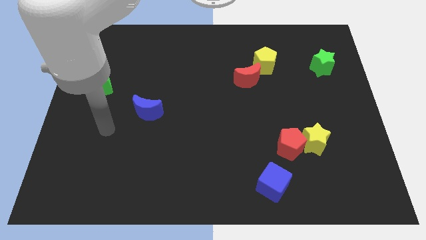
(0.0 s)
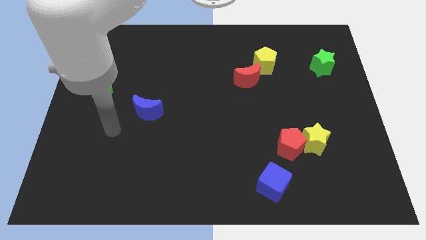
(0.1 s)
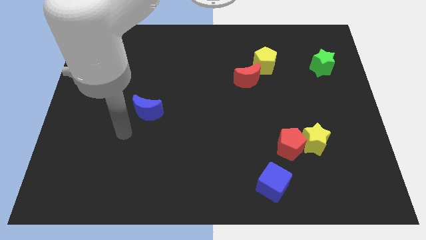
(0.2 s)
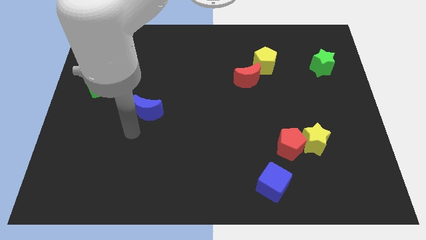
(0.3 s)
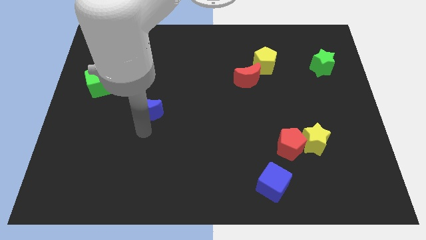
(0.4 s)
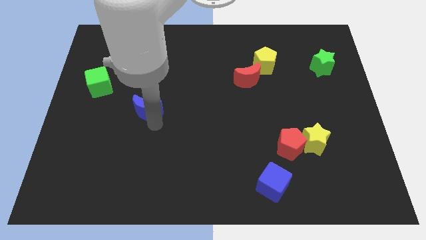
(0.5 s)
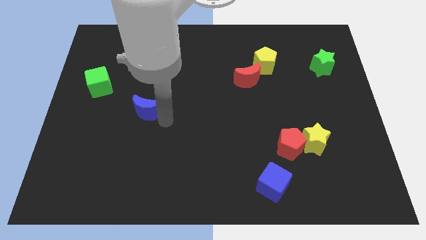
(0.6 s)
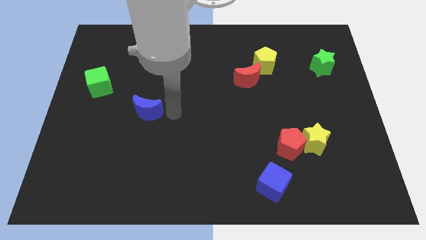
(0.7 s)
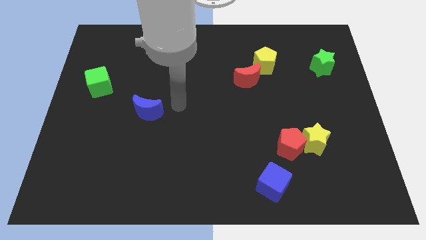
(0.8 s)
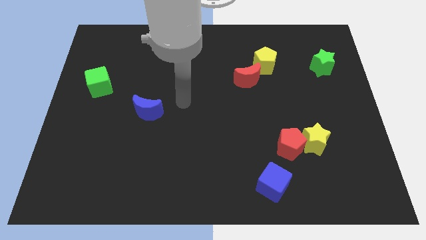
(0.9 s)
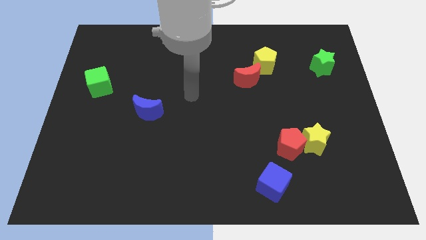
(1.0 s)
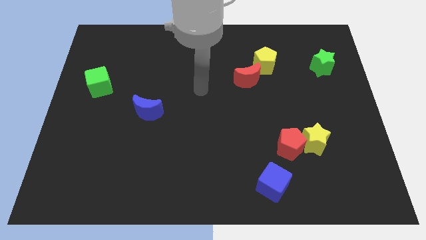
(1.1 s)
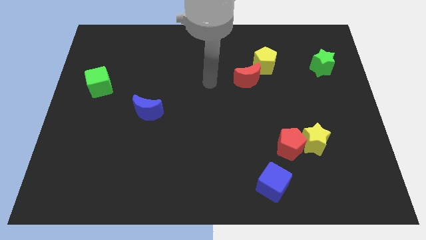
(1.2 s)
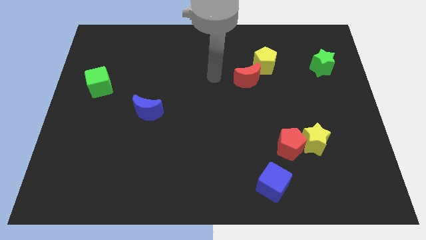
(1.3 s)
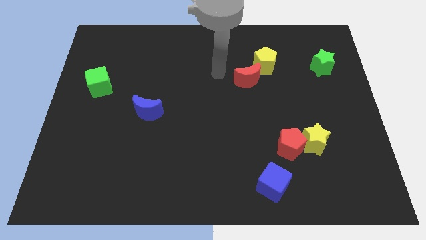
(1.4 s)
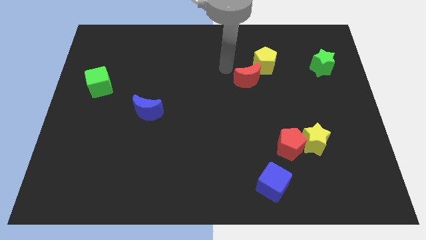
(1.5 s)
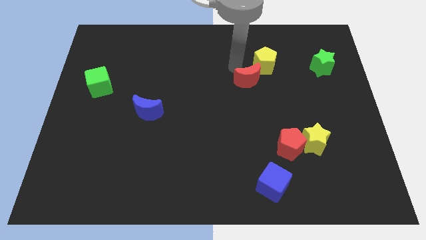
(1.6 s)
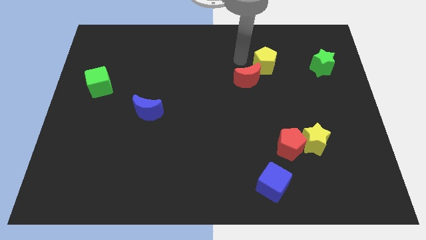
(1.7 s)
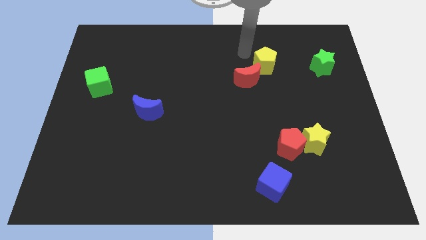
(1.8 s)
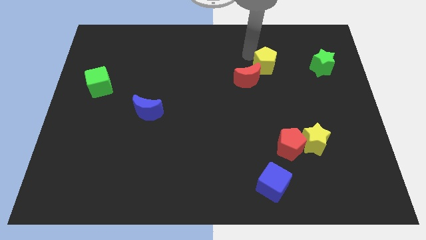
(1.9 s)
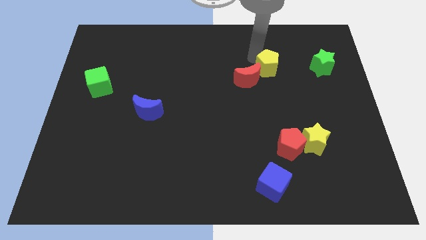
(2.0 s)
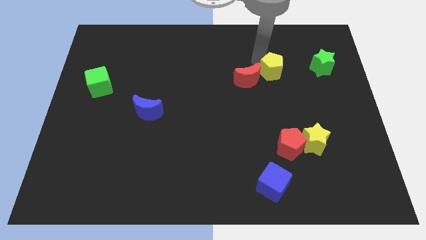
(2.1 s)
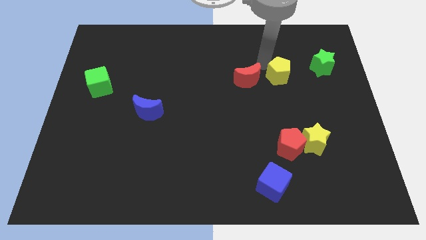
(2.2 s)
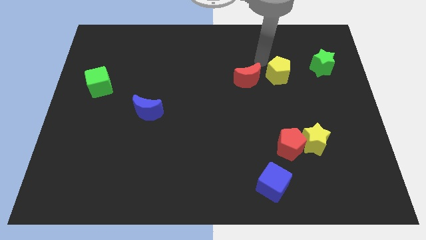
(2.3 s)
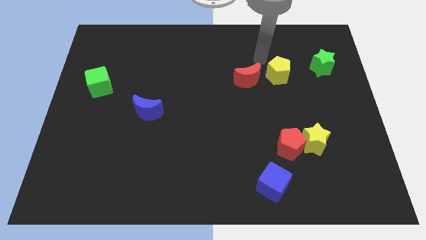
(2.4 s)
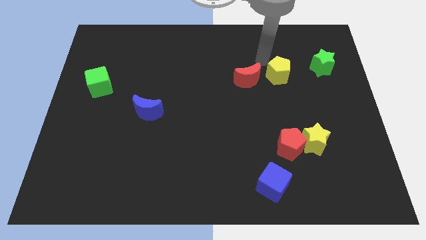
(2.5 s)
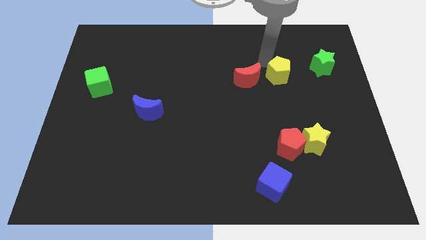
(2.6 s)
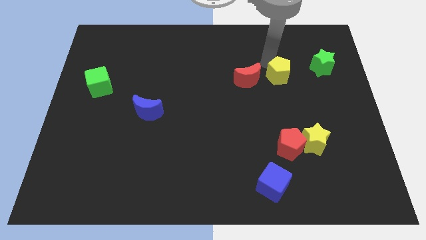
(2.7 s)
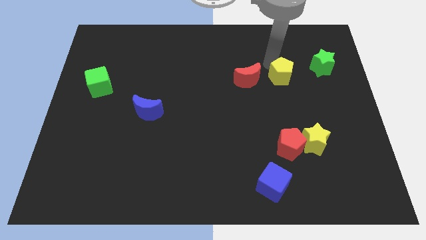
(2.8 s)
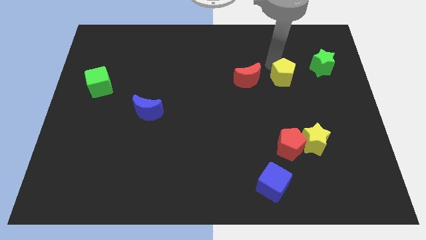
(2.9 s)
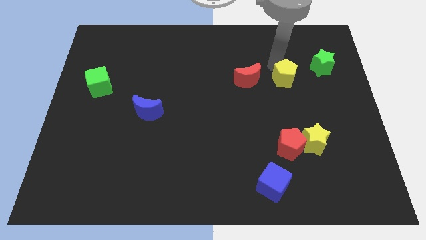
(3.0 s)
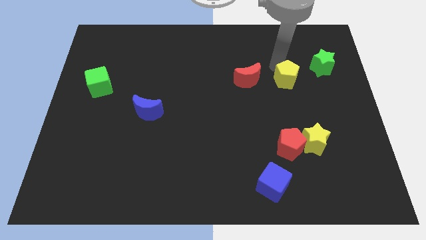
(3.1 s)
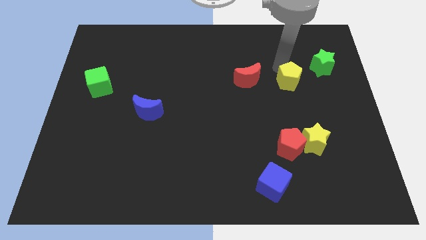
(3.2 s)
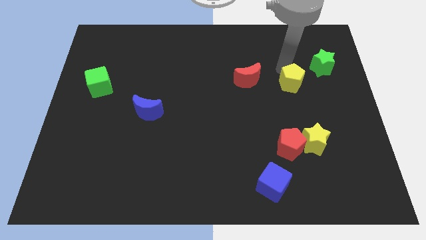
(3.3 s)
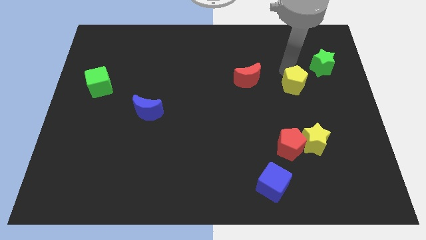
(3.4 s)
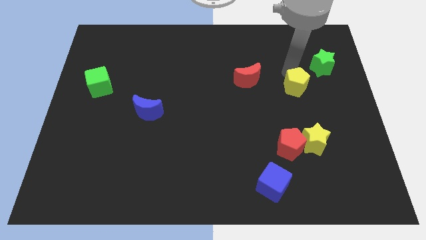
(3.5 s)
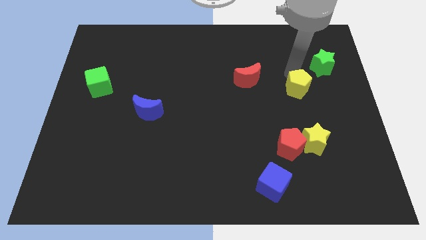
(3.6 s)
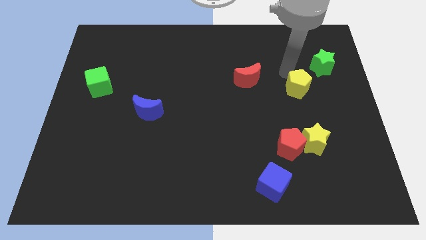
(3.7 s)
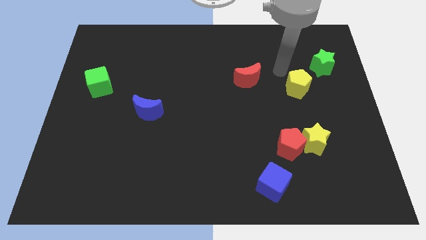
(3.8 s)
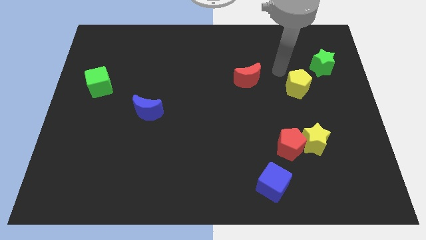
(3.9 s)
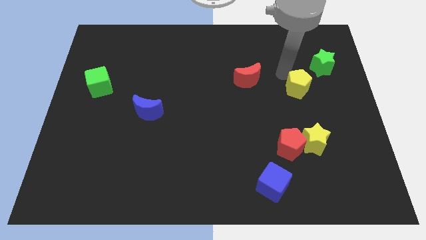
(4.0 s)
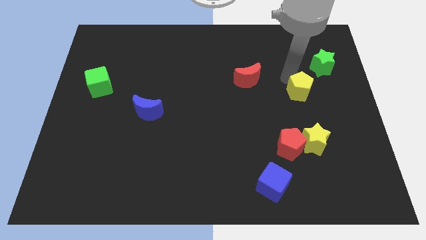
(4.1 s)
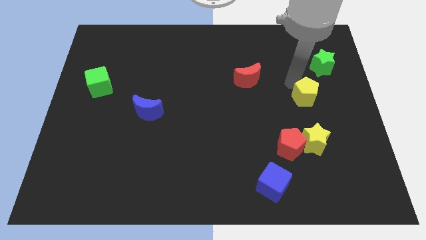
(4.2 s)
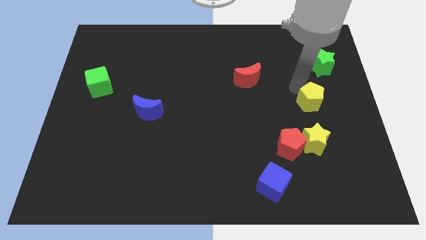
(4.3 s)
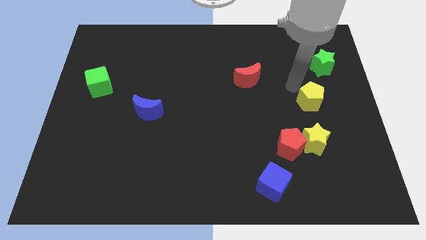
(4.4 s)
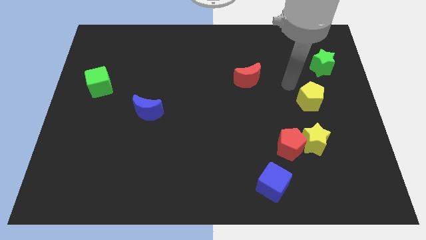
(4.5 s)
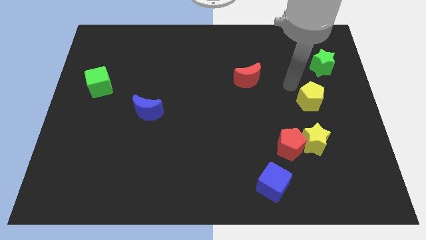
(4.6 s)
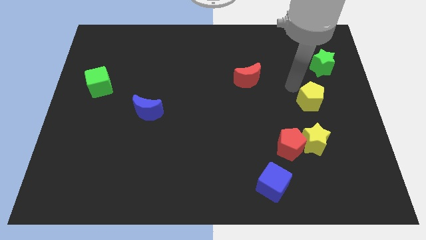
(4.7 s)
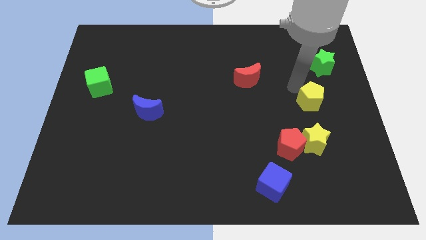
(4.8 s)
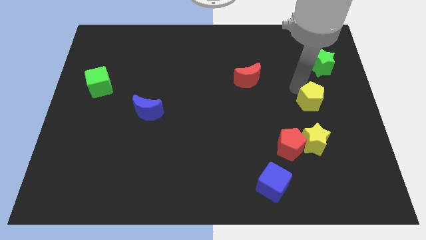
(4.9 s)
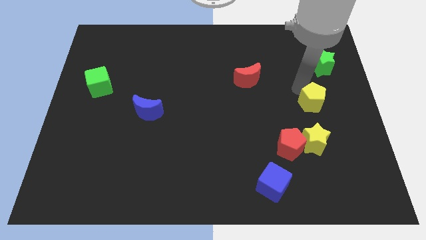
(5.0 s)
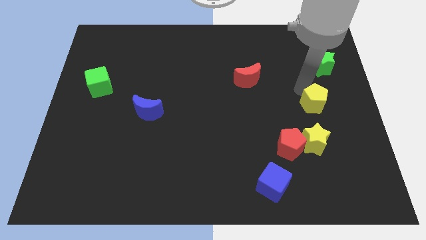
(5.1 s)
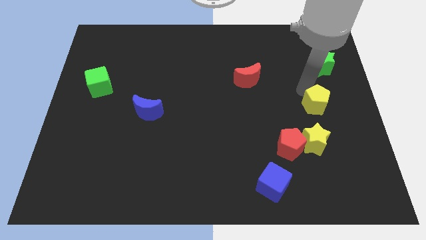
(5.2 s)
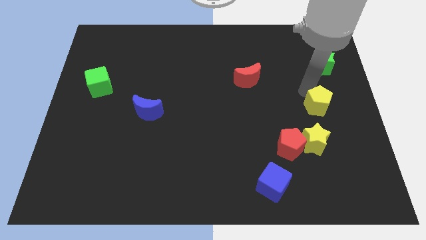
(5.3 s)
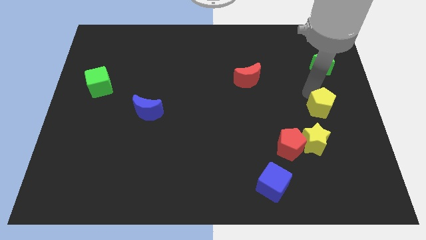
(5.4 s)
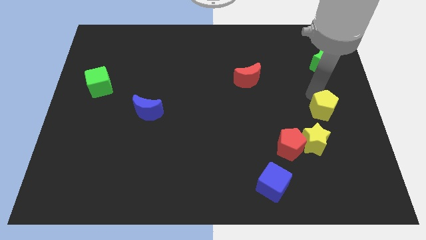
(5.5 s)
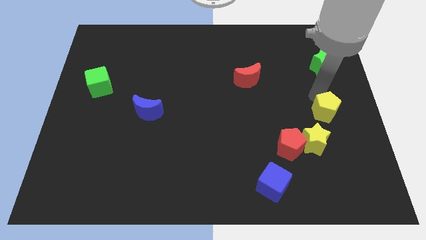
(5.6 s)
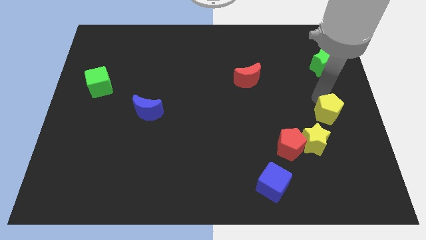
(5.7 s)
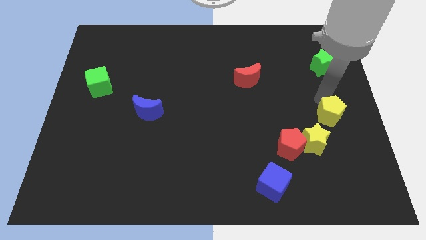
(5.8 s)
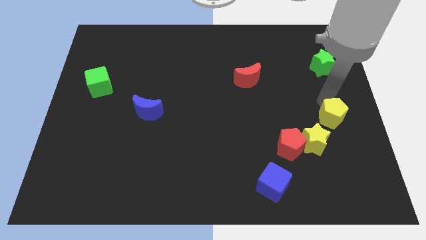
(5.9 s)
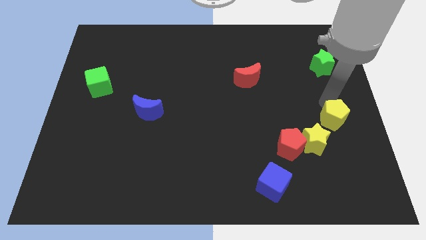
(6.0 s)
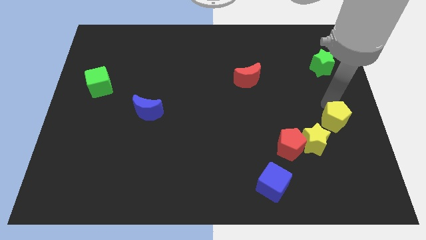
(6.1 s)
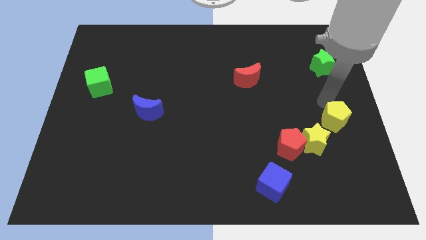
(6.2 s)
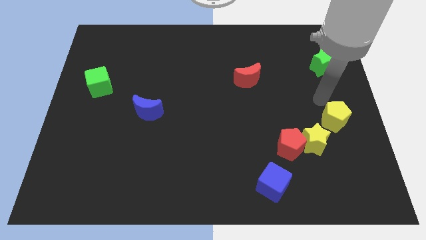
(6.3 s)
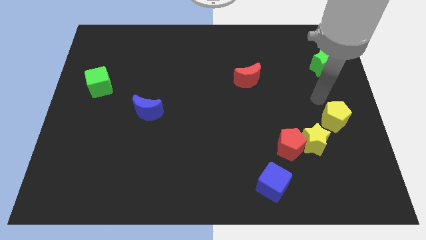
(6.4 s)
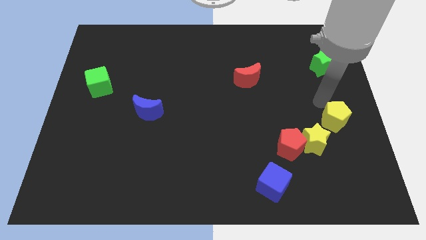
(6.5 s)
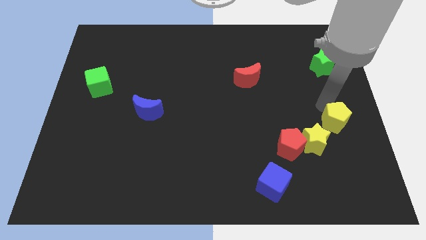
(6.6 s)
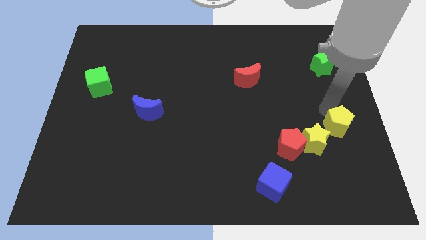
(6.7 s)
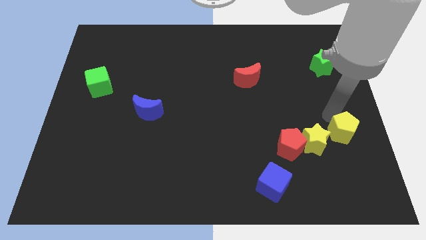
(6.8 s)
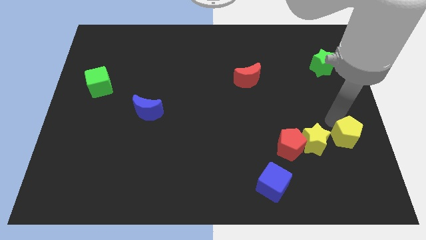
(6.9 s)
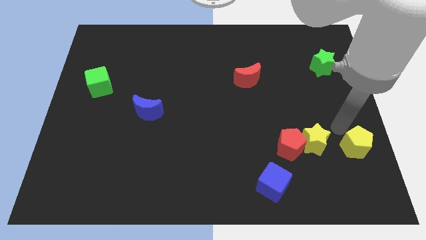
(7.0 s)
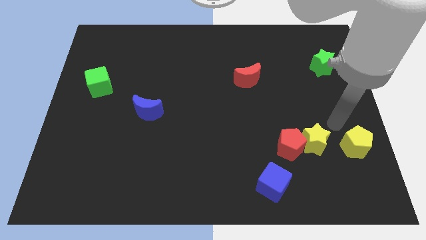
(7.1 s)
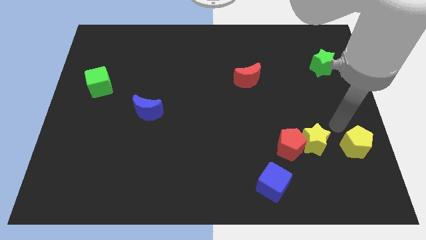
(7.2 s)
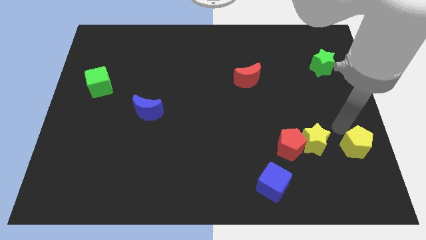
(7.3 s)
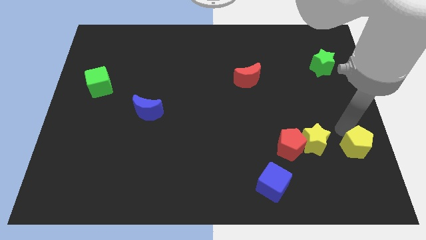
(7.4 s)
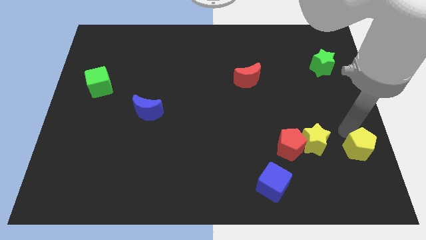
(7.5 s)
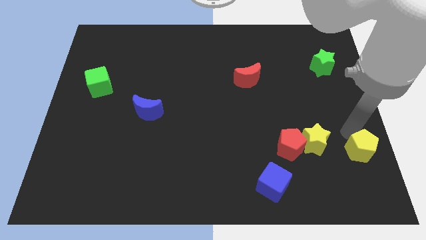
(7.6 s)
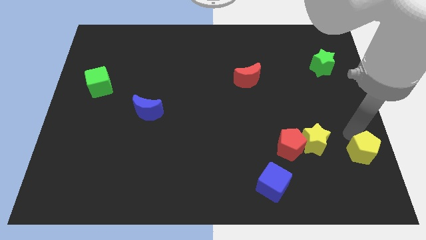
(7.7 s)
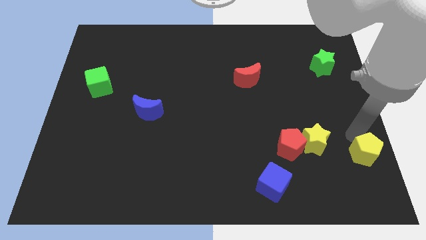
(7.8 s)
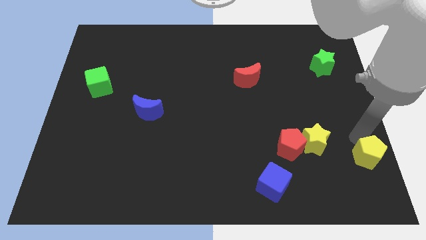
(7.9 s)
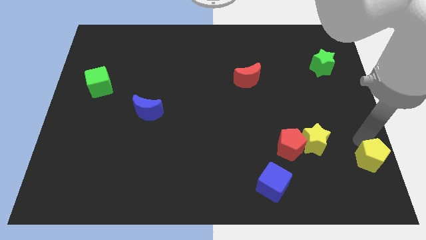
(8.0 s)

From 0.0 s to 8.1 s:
move the yellow pentagon to the bottom right corner
